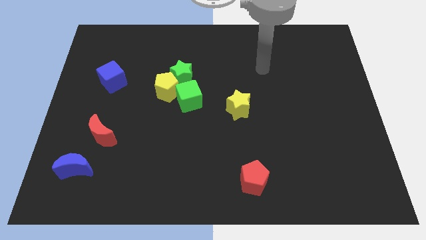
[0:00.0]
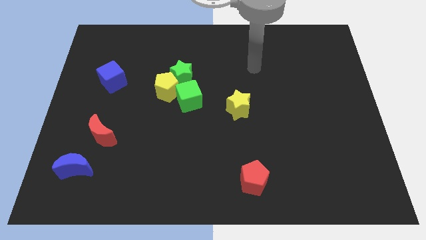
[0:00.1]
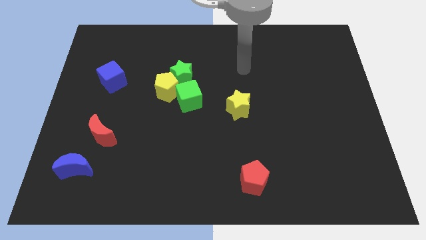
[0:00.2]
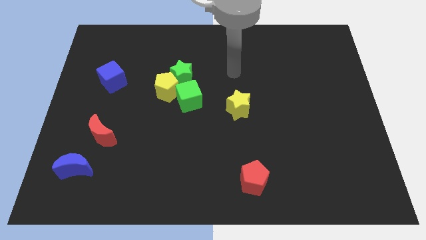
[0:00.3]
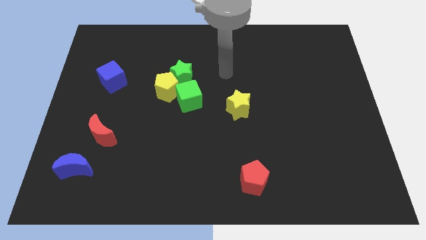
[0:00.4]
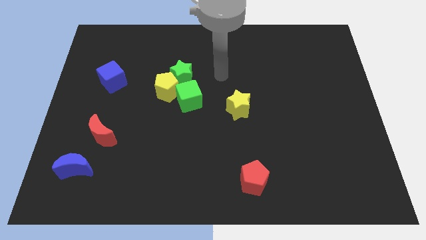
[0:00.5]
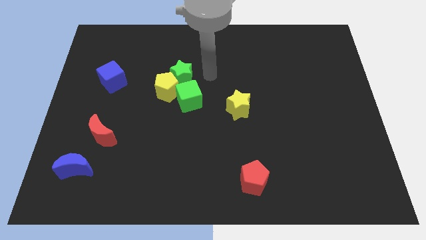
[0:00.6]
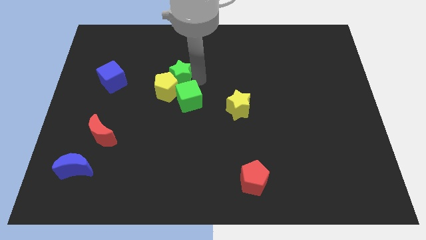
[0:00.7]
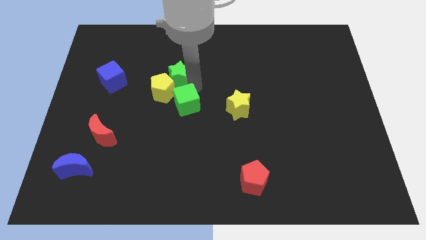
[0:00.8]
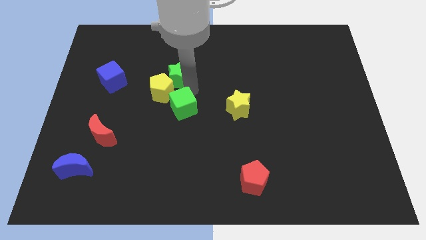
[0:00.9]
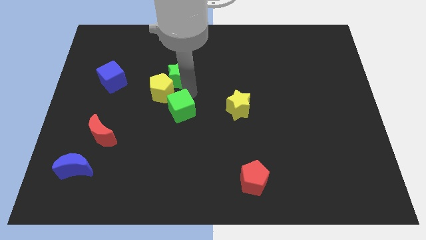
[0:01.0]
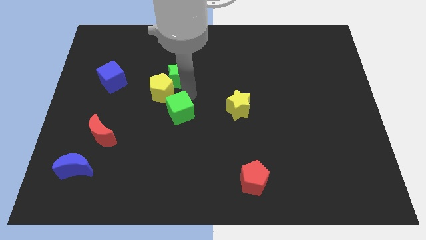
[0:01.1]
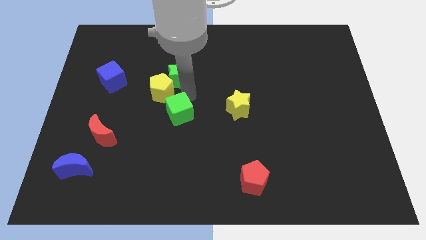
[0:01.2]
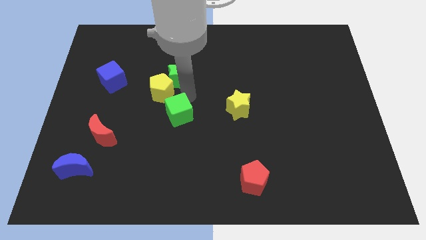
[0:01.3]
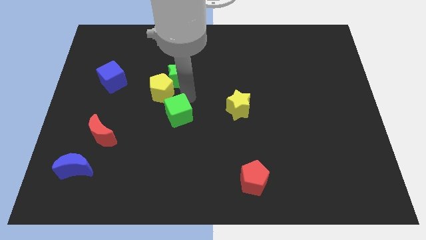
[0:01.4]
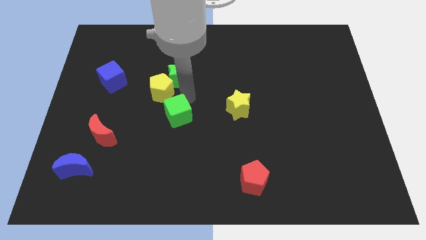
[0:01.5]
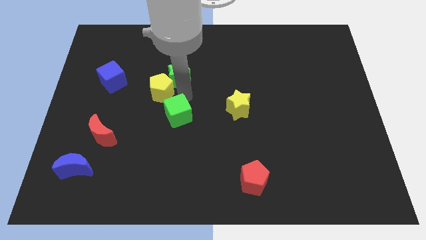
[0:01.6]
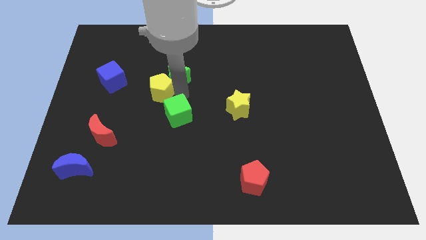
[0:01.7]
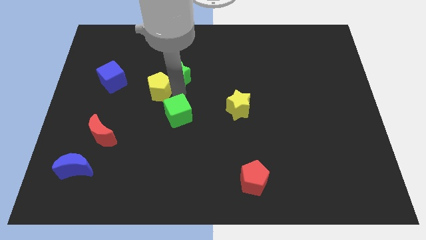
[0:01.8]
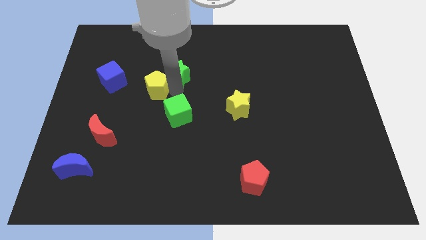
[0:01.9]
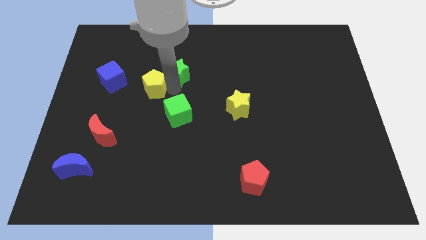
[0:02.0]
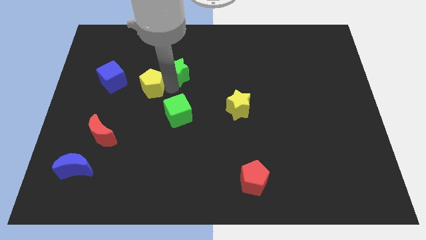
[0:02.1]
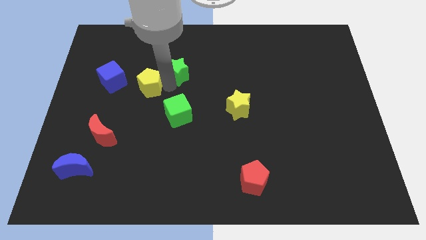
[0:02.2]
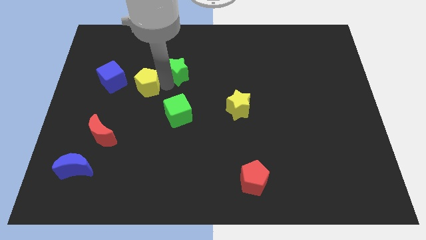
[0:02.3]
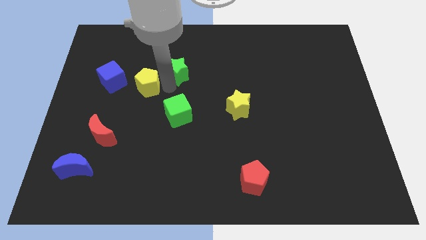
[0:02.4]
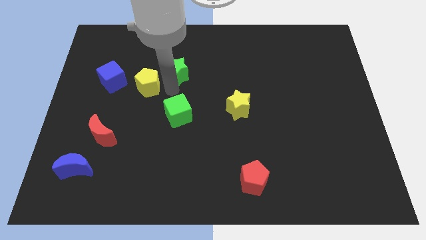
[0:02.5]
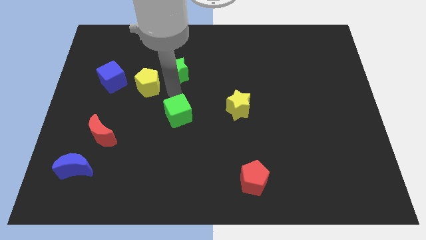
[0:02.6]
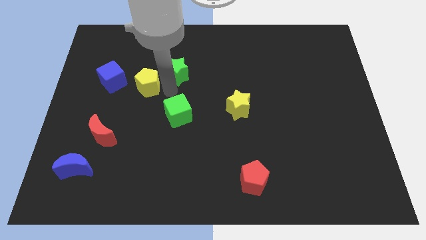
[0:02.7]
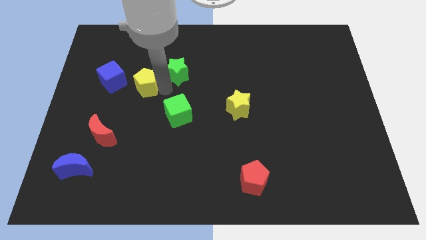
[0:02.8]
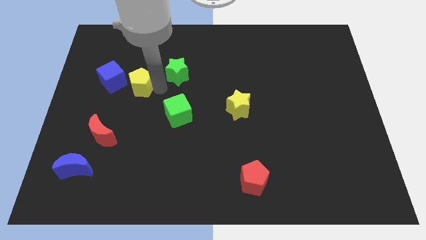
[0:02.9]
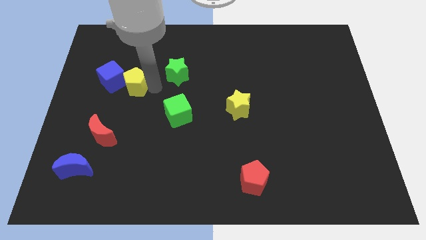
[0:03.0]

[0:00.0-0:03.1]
pull the yellow pentagon apart from the green star and green cube

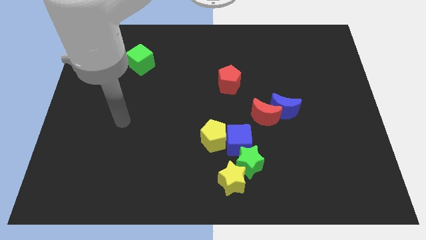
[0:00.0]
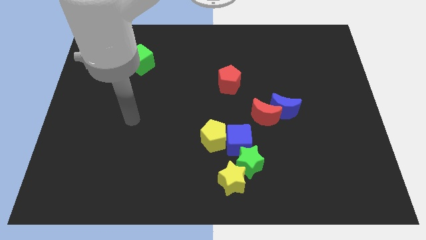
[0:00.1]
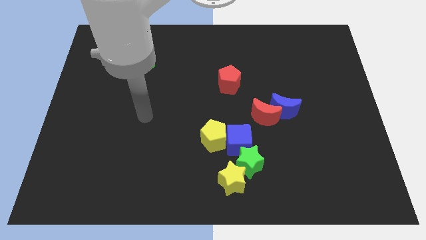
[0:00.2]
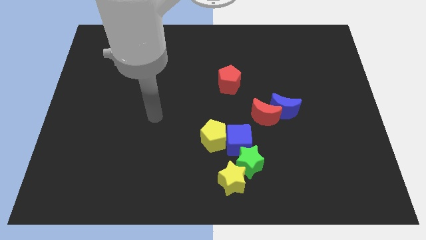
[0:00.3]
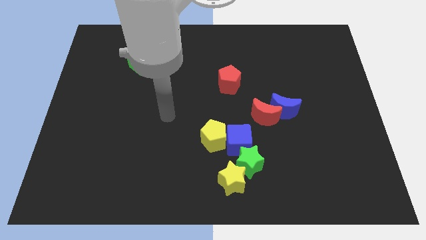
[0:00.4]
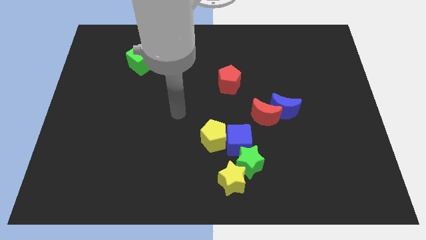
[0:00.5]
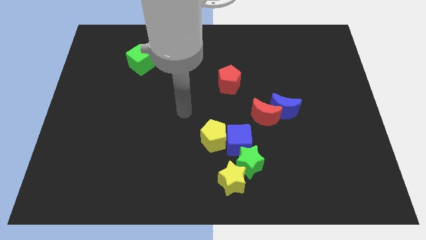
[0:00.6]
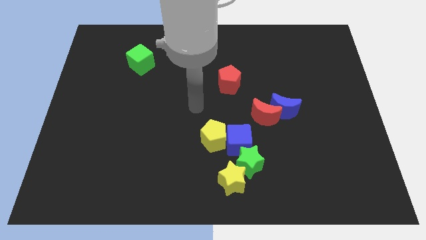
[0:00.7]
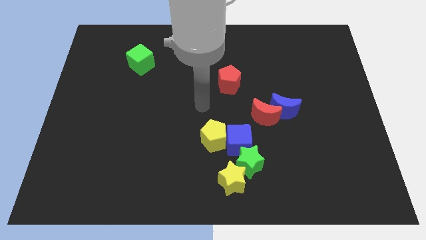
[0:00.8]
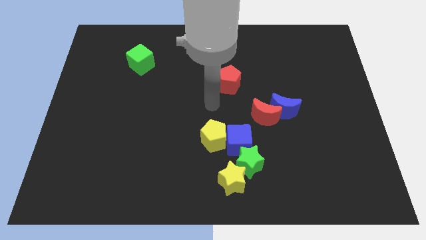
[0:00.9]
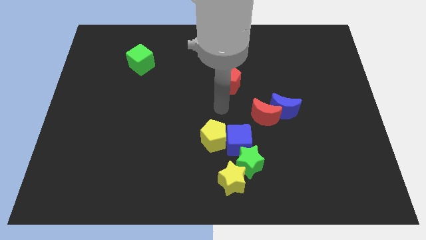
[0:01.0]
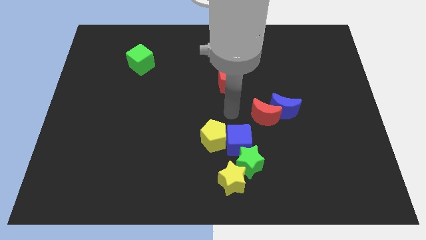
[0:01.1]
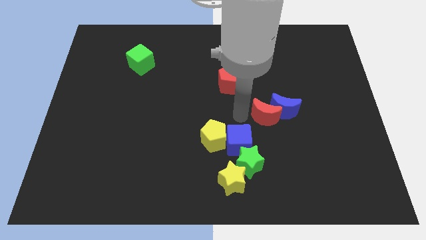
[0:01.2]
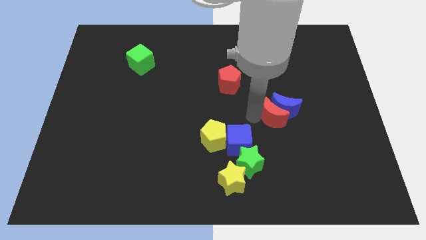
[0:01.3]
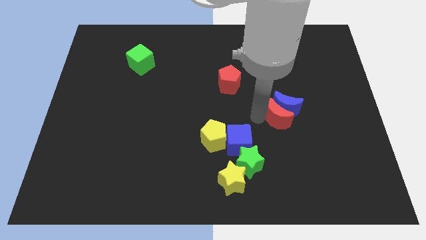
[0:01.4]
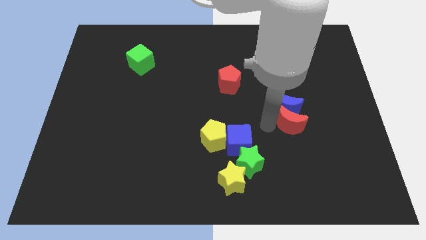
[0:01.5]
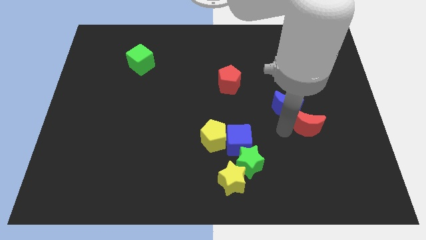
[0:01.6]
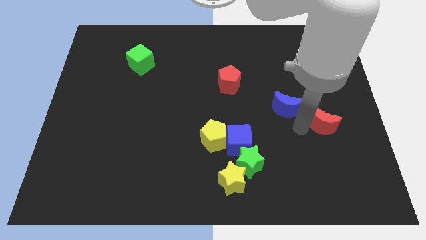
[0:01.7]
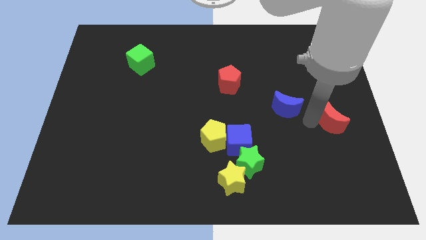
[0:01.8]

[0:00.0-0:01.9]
separate the blue moon from the red moon

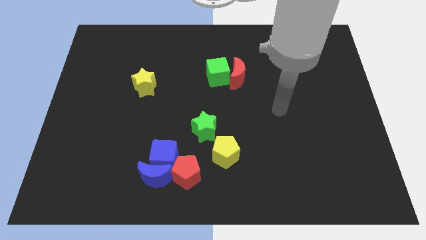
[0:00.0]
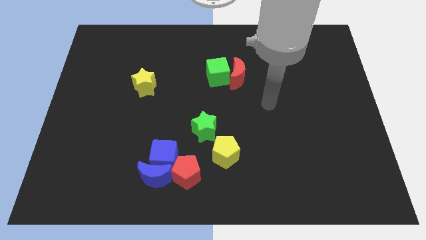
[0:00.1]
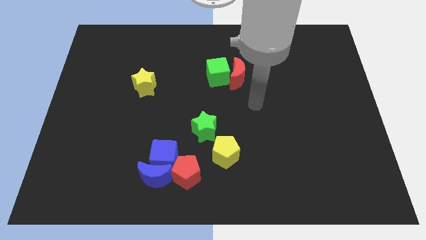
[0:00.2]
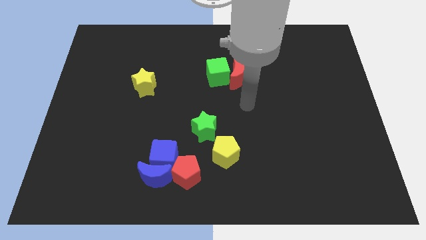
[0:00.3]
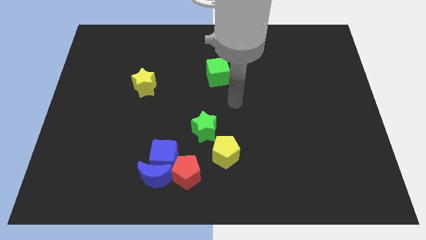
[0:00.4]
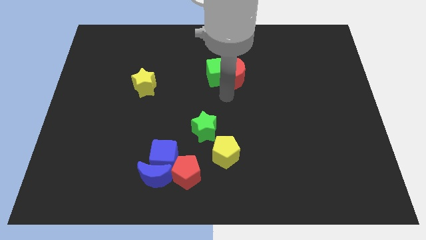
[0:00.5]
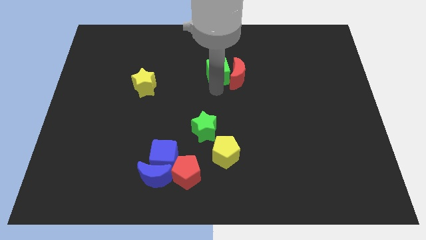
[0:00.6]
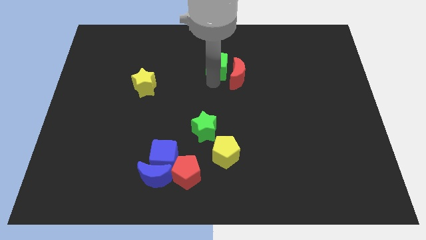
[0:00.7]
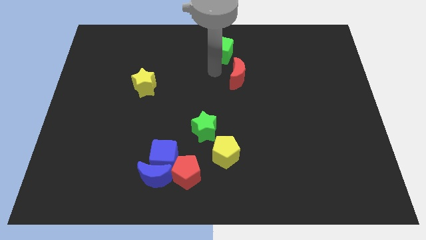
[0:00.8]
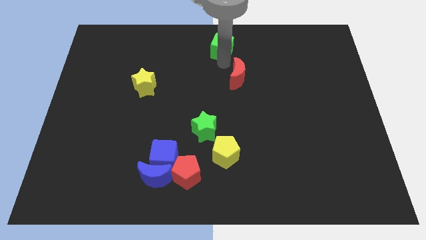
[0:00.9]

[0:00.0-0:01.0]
move the red moon away from the green cube

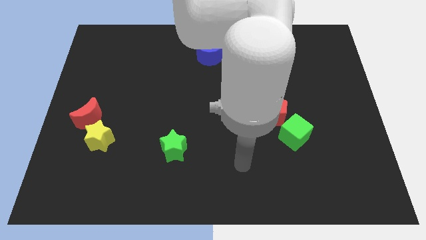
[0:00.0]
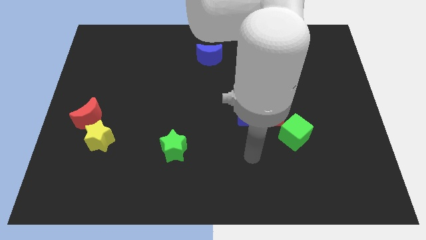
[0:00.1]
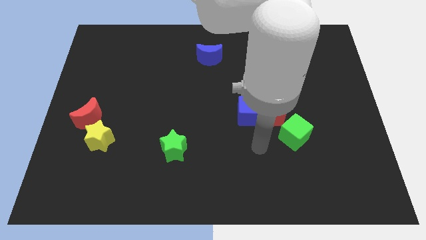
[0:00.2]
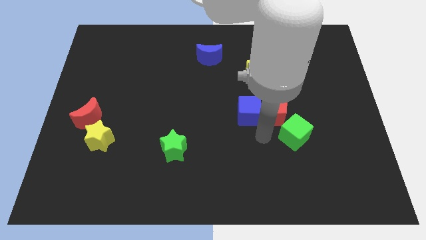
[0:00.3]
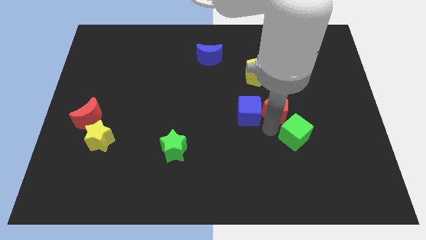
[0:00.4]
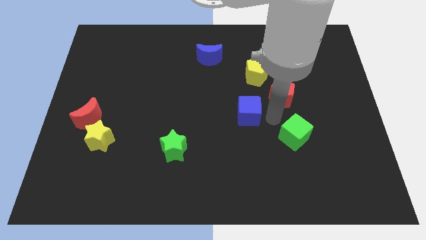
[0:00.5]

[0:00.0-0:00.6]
pull the blue cube apart from the red pentagon

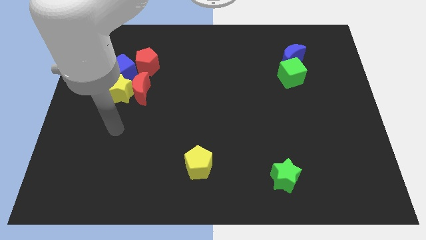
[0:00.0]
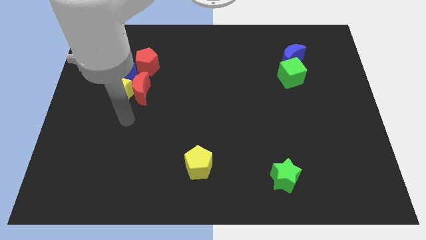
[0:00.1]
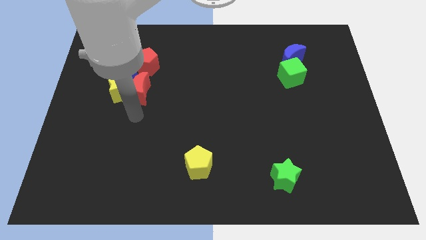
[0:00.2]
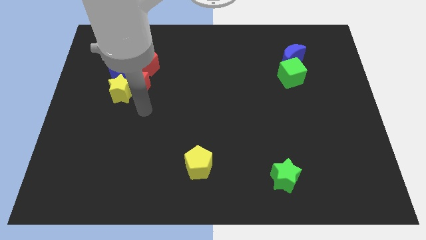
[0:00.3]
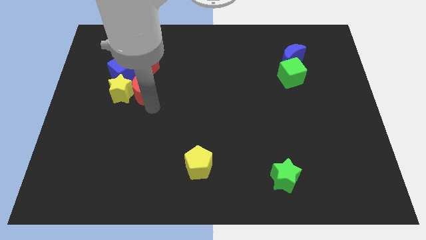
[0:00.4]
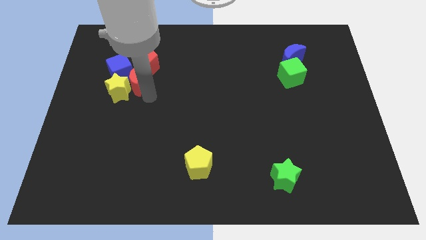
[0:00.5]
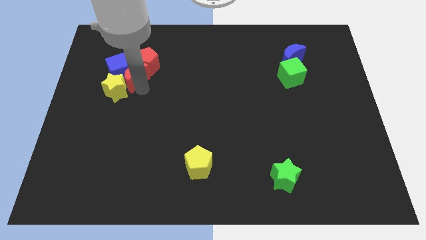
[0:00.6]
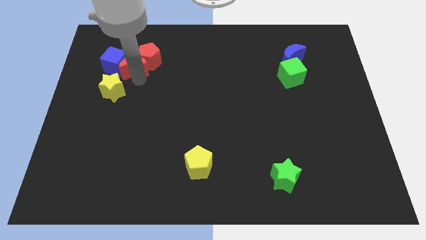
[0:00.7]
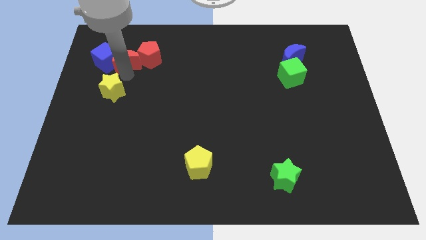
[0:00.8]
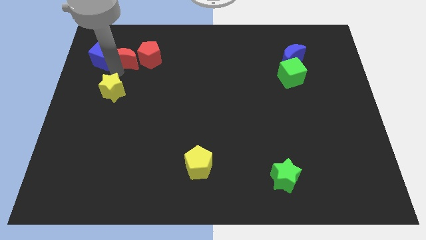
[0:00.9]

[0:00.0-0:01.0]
pull the yellow star apart from the red moon and blue cube

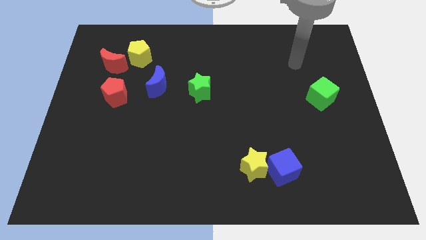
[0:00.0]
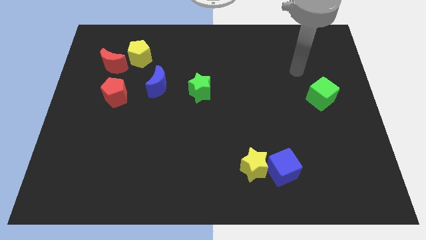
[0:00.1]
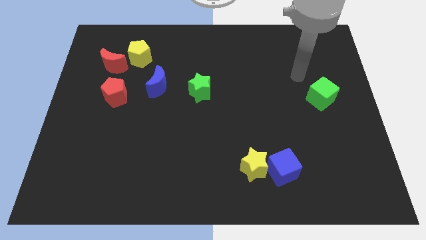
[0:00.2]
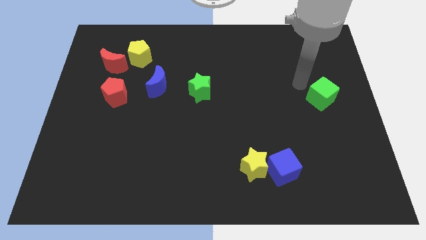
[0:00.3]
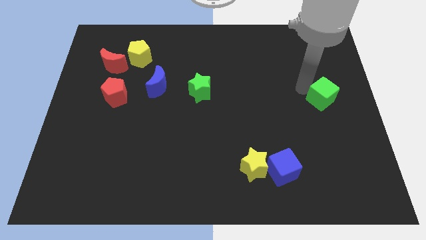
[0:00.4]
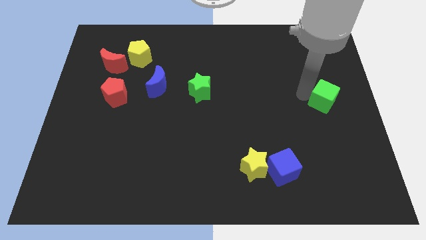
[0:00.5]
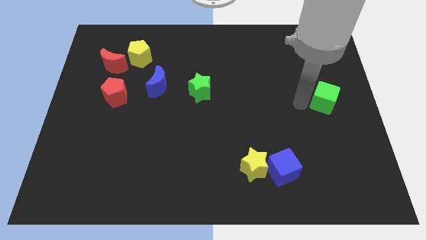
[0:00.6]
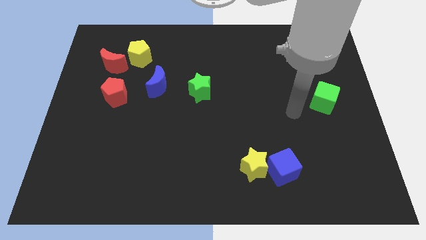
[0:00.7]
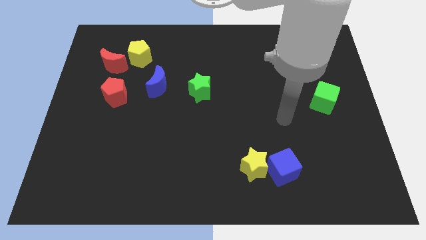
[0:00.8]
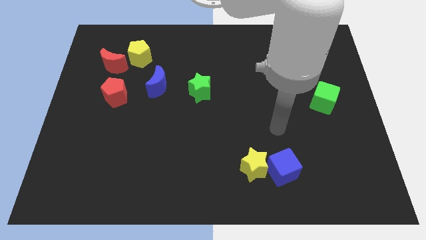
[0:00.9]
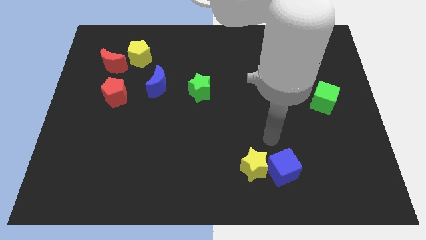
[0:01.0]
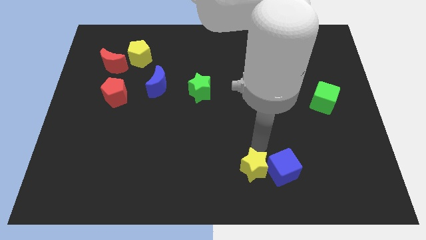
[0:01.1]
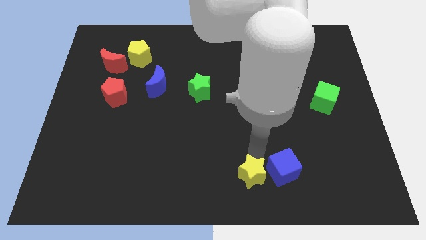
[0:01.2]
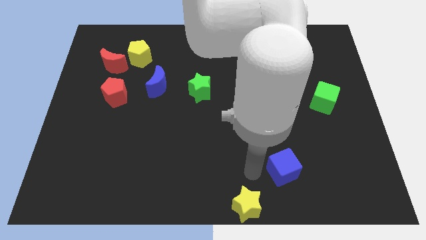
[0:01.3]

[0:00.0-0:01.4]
pull the blue cube apart from the yellow star

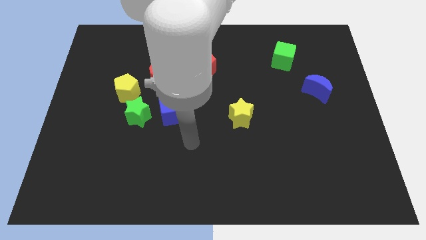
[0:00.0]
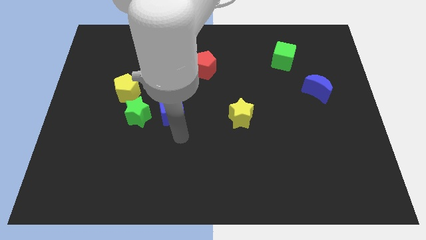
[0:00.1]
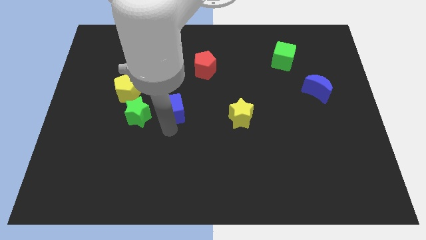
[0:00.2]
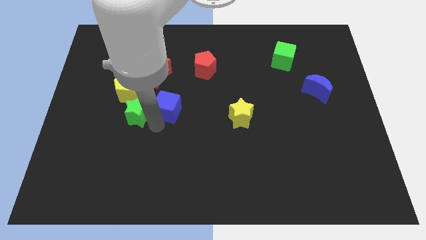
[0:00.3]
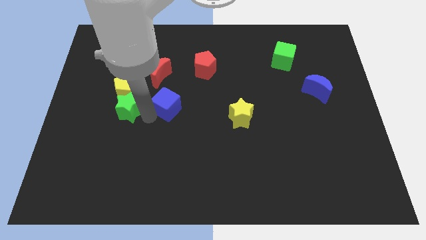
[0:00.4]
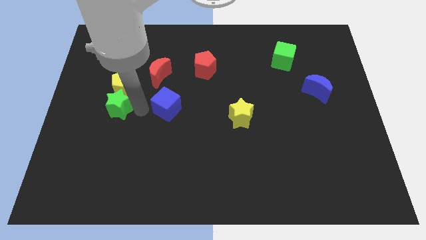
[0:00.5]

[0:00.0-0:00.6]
pull the blue cube apart from the green star
